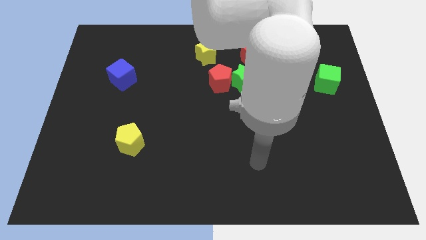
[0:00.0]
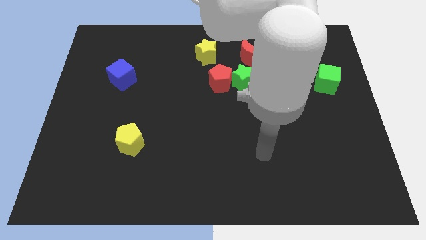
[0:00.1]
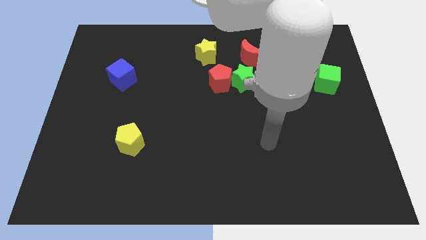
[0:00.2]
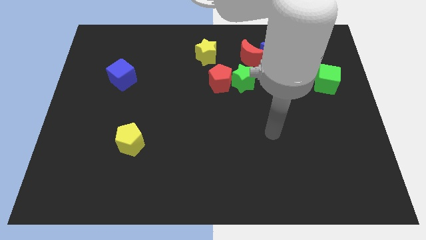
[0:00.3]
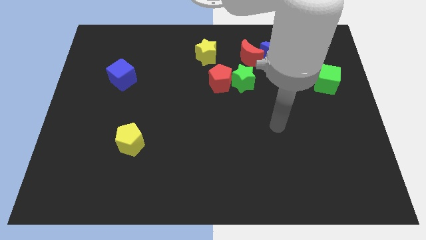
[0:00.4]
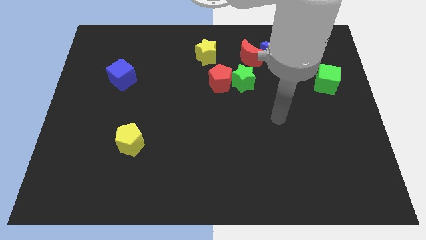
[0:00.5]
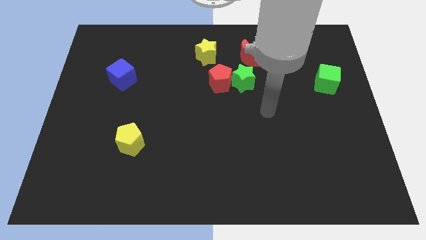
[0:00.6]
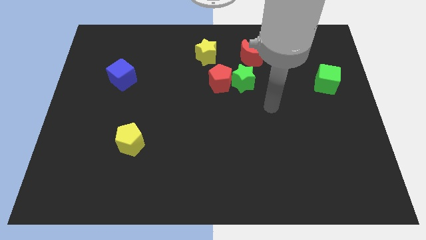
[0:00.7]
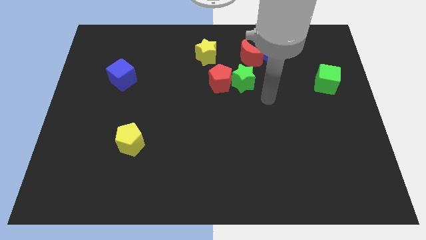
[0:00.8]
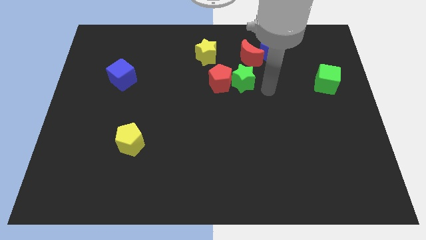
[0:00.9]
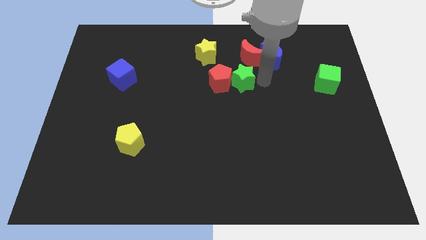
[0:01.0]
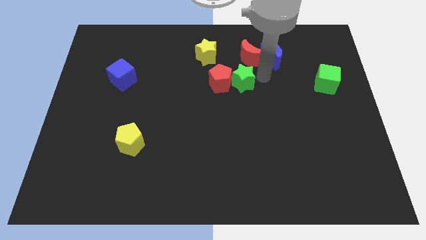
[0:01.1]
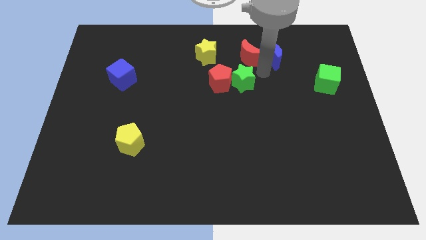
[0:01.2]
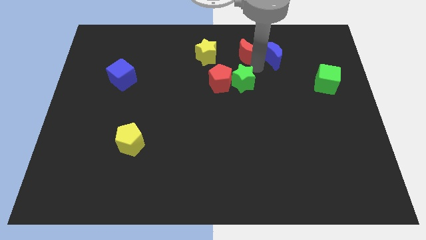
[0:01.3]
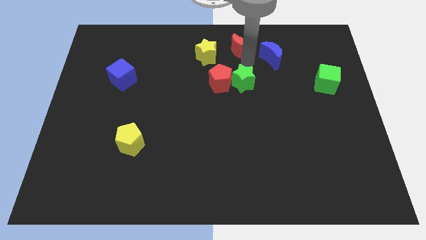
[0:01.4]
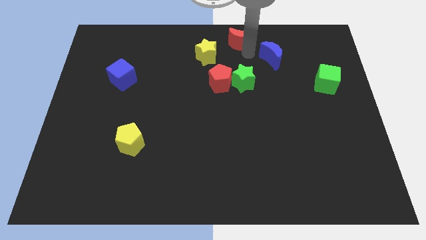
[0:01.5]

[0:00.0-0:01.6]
move the blue moon away from the red moon

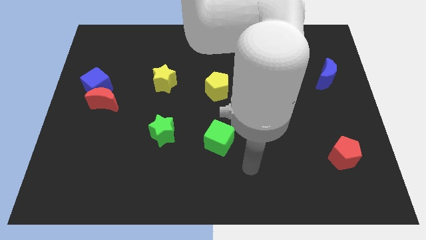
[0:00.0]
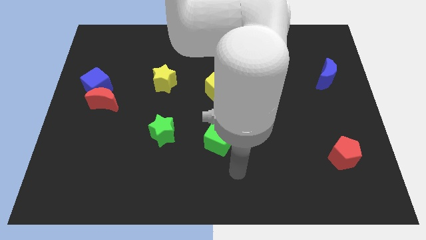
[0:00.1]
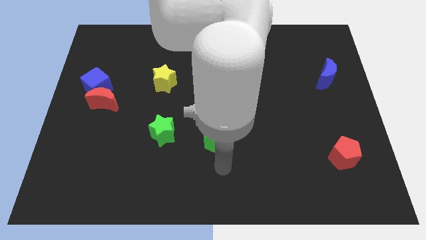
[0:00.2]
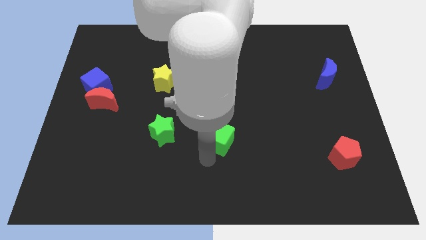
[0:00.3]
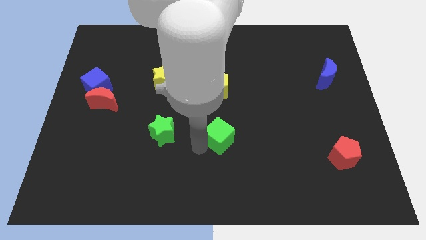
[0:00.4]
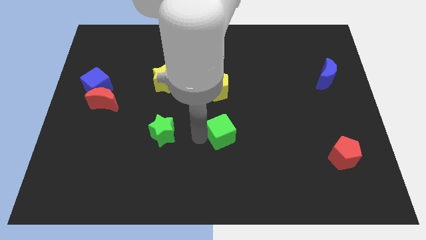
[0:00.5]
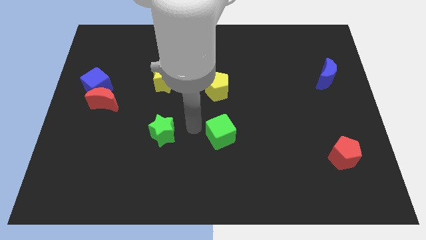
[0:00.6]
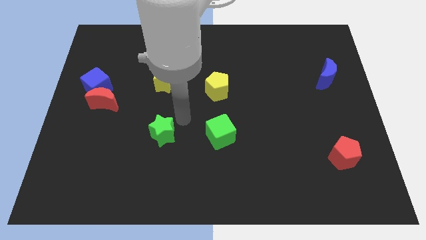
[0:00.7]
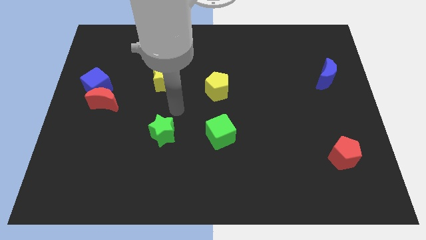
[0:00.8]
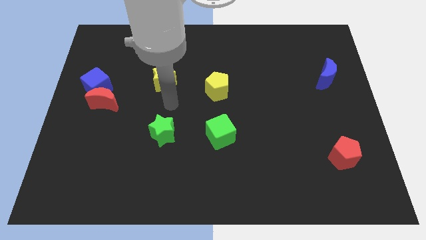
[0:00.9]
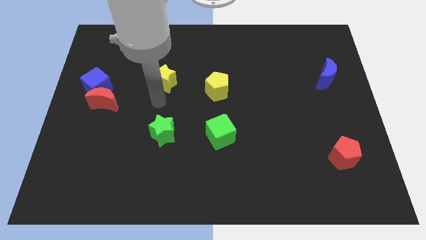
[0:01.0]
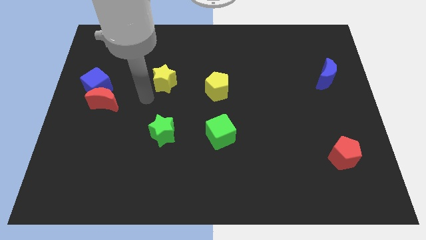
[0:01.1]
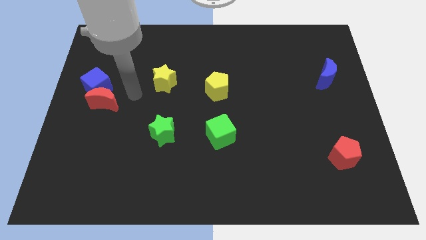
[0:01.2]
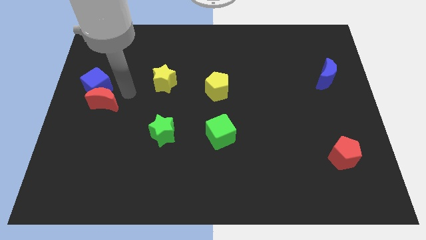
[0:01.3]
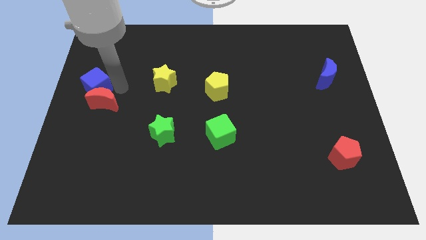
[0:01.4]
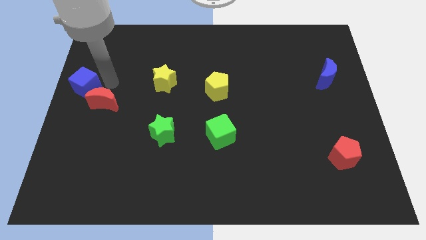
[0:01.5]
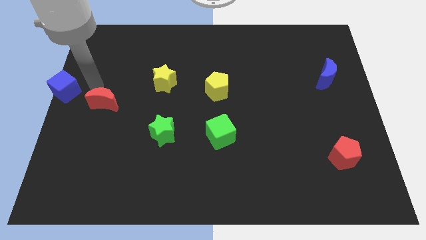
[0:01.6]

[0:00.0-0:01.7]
pull the red moon apart from the blue cube

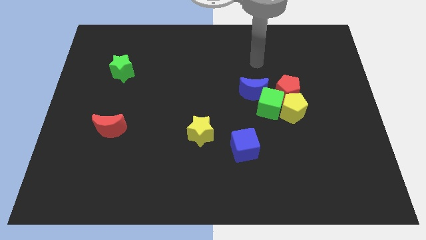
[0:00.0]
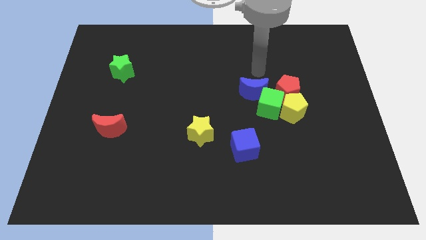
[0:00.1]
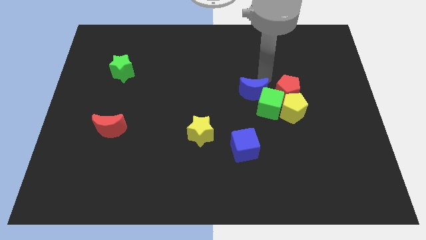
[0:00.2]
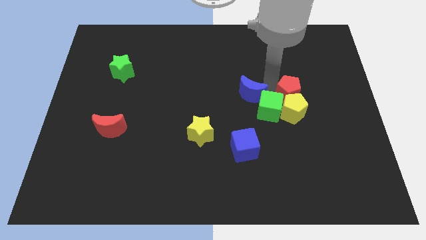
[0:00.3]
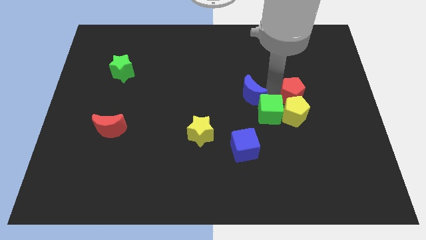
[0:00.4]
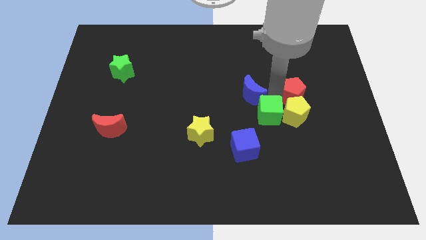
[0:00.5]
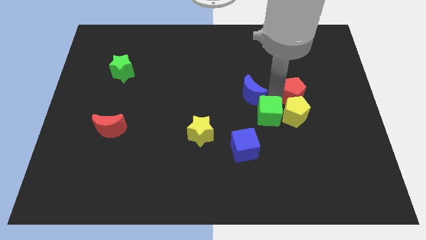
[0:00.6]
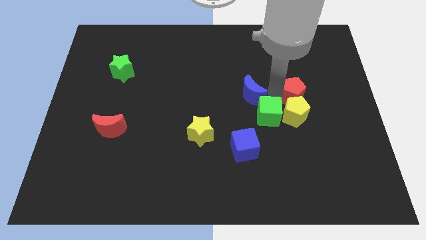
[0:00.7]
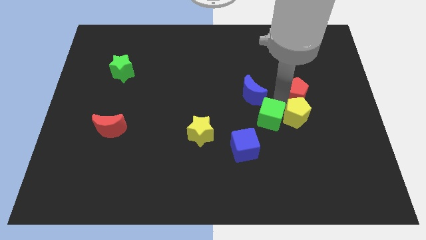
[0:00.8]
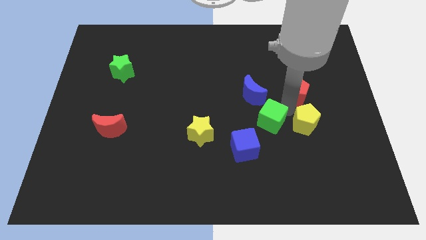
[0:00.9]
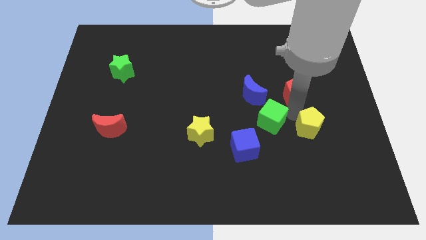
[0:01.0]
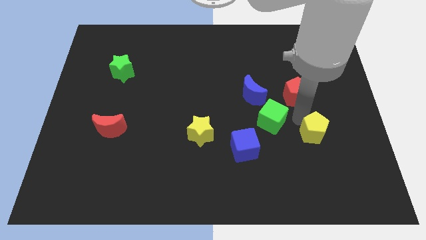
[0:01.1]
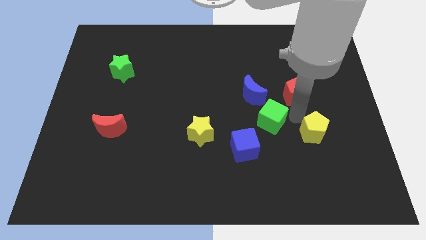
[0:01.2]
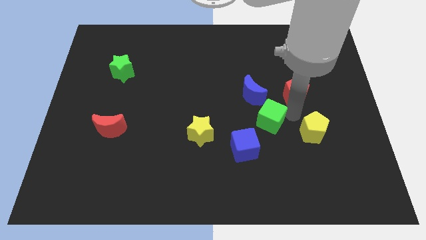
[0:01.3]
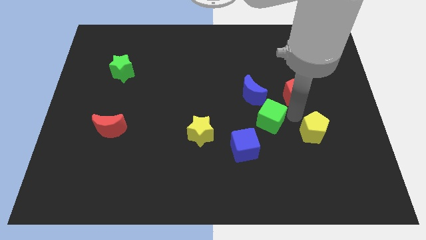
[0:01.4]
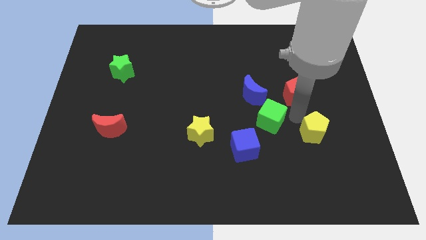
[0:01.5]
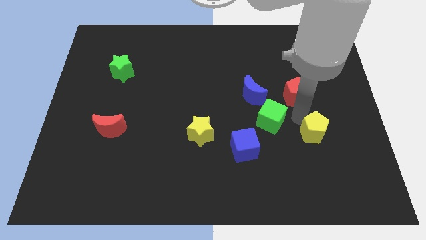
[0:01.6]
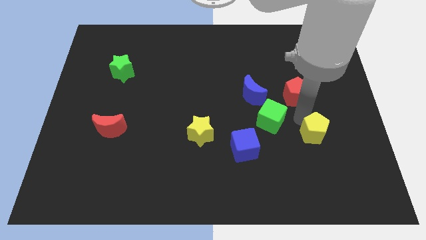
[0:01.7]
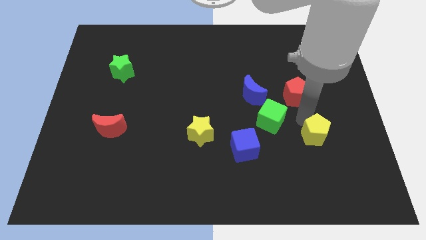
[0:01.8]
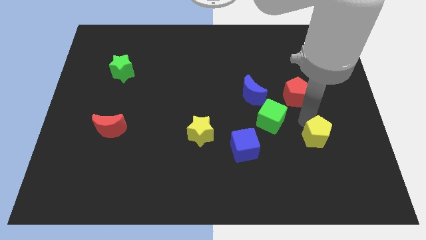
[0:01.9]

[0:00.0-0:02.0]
move the yellow pentagon away from the green cube and red pentagon

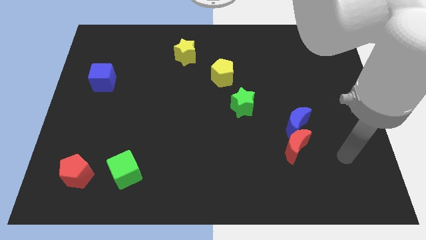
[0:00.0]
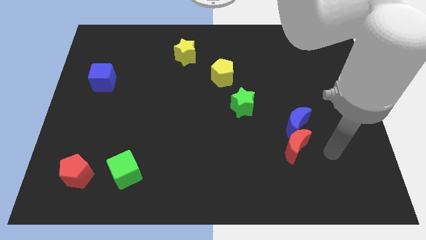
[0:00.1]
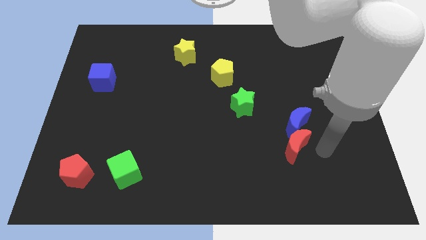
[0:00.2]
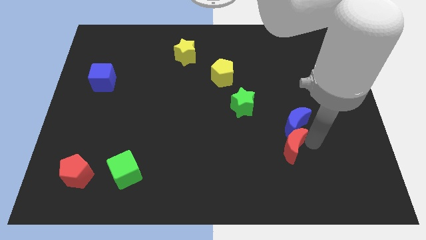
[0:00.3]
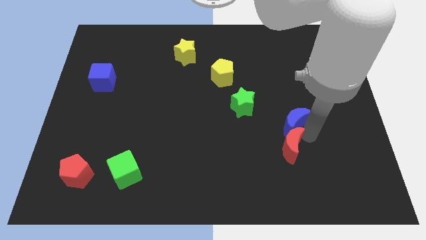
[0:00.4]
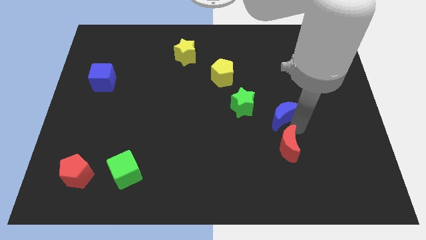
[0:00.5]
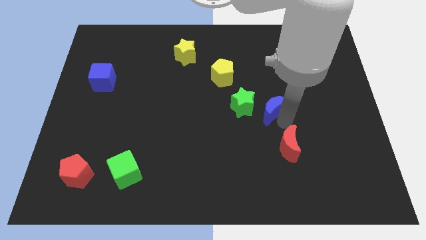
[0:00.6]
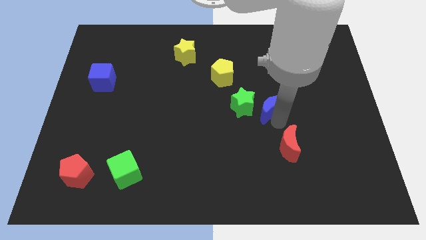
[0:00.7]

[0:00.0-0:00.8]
move the red moon away from the blue moon

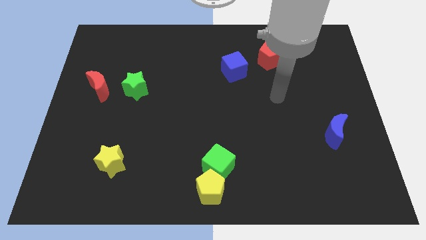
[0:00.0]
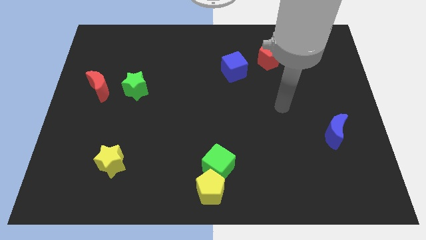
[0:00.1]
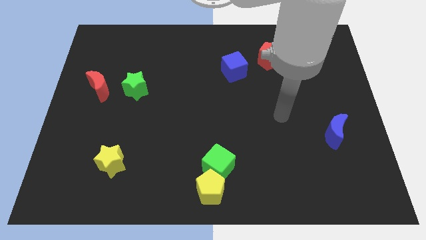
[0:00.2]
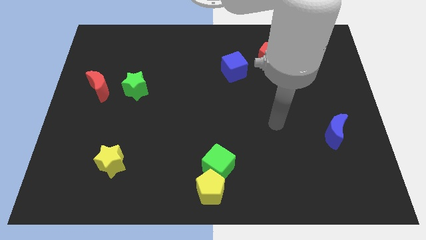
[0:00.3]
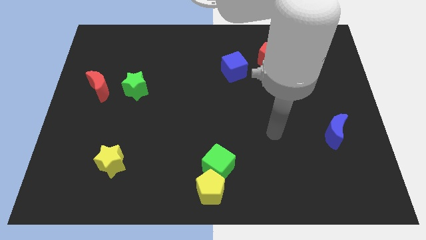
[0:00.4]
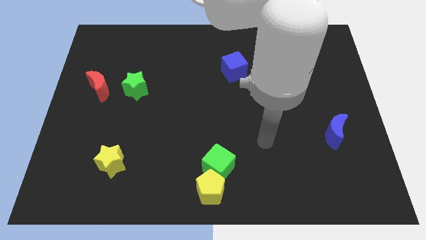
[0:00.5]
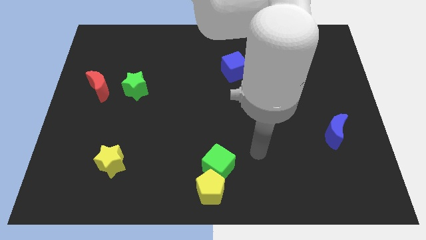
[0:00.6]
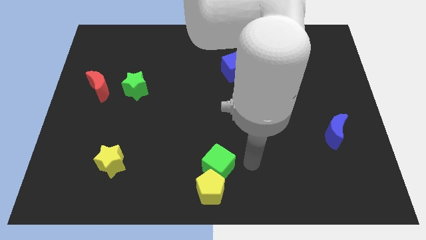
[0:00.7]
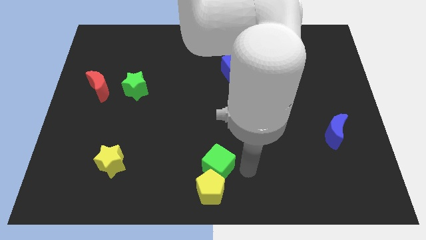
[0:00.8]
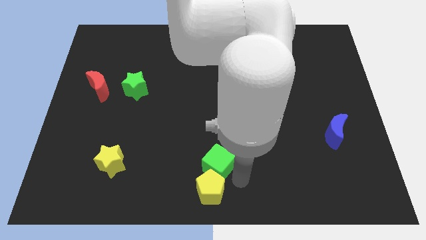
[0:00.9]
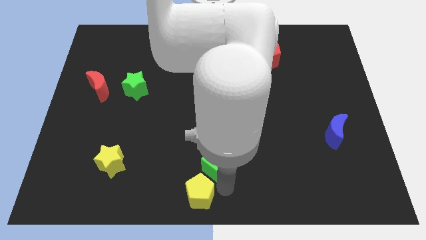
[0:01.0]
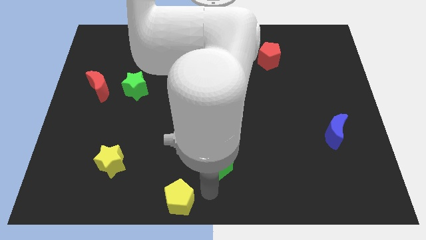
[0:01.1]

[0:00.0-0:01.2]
separate the green cube from the yellow pentagon

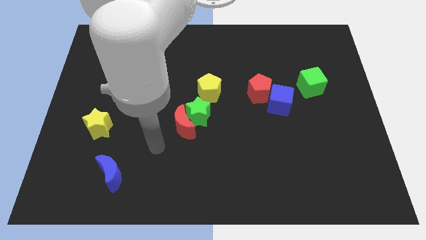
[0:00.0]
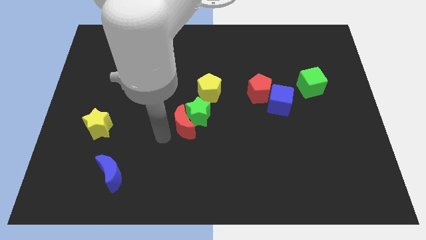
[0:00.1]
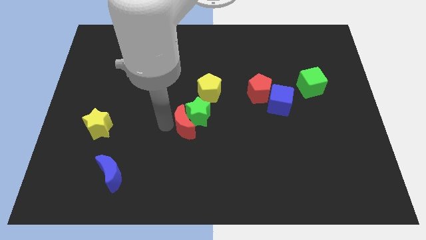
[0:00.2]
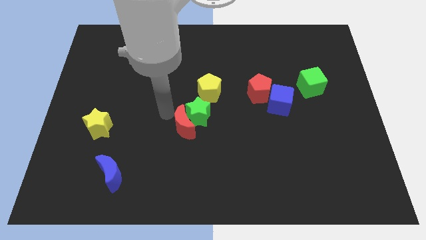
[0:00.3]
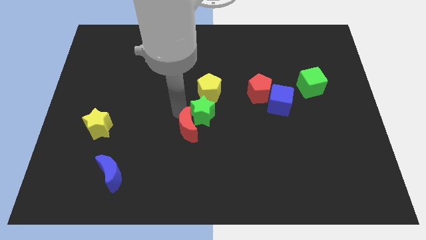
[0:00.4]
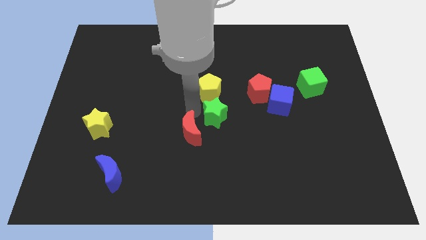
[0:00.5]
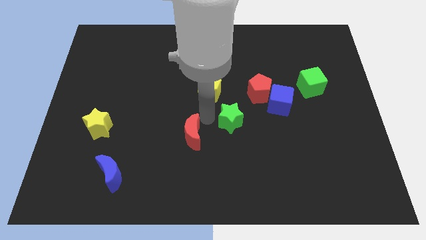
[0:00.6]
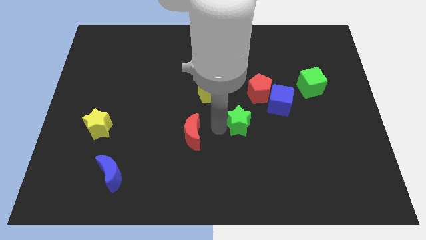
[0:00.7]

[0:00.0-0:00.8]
separate the red moon from the green star

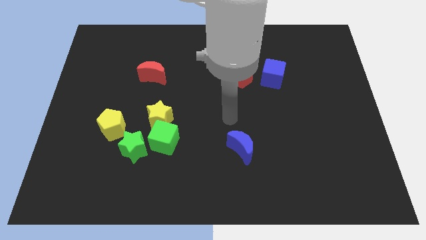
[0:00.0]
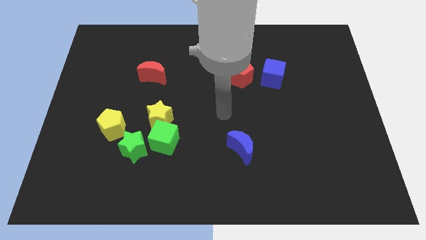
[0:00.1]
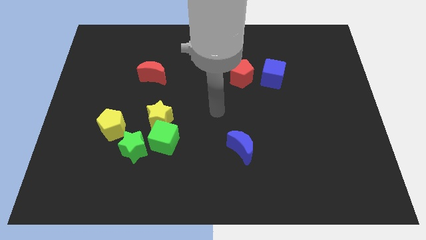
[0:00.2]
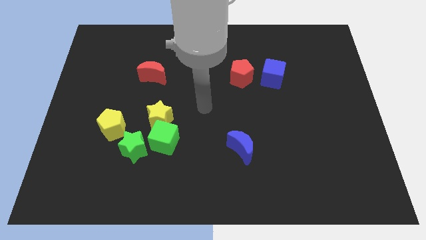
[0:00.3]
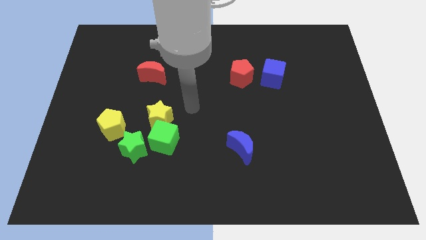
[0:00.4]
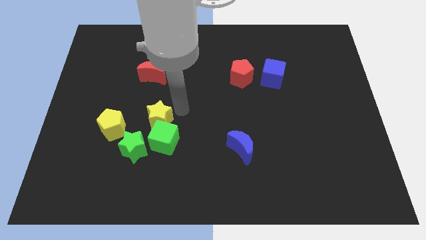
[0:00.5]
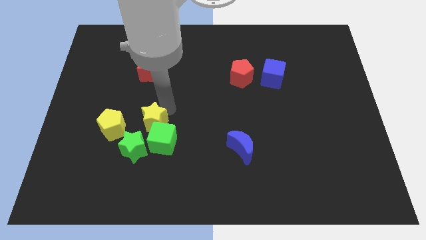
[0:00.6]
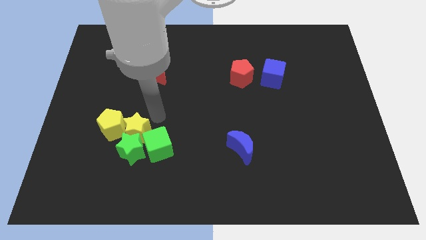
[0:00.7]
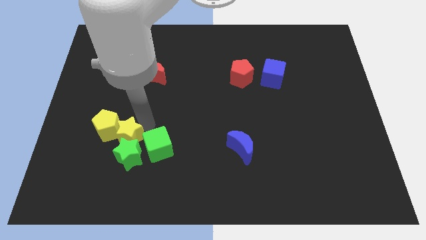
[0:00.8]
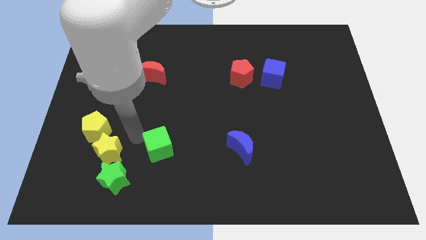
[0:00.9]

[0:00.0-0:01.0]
move the green cube away from the yellow star and green star

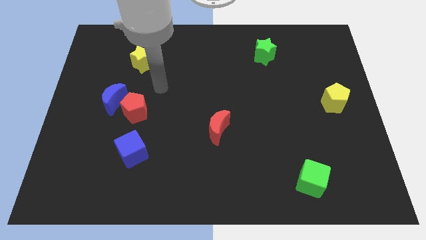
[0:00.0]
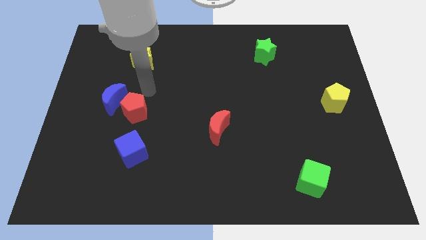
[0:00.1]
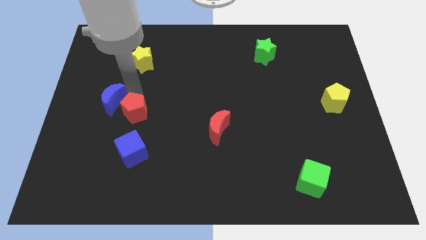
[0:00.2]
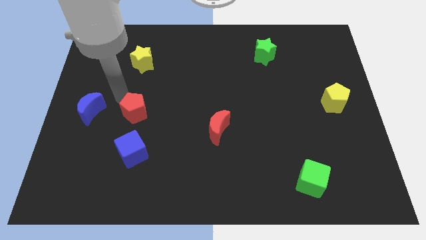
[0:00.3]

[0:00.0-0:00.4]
move the red pentagon away from the blue moon
